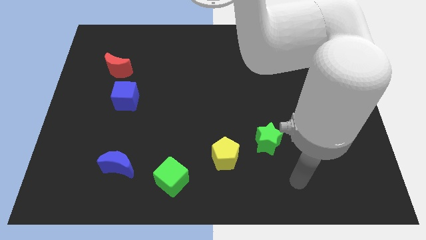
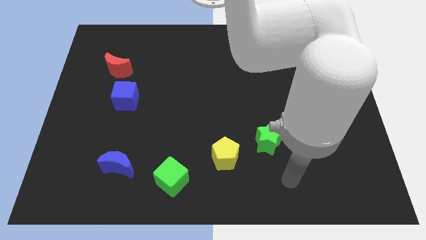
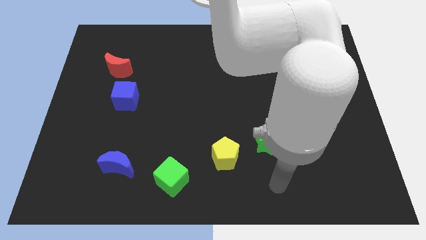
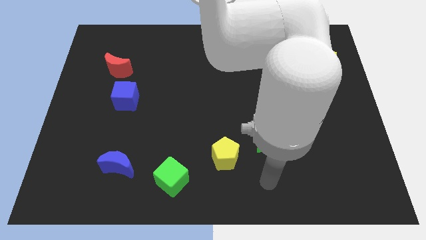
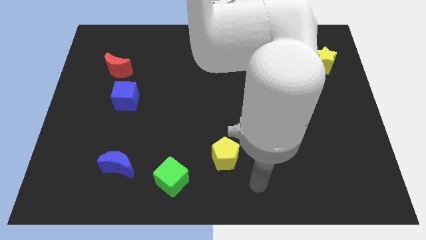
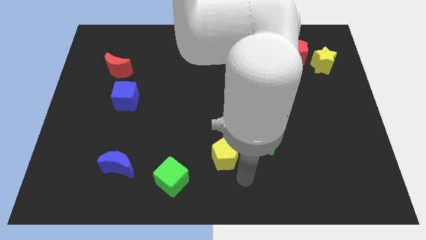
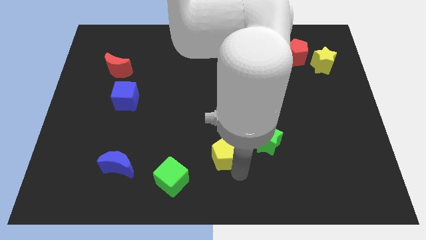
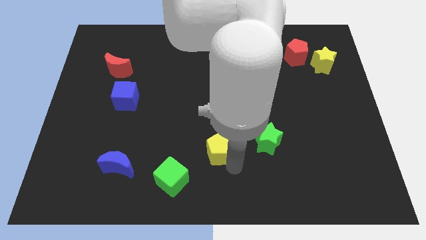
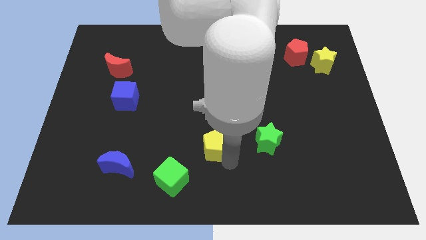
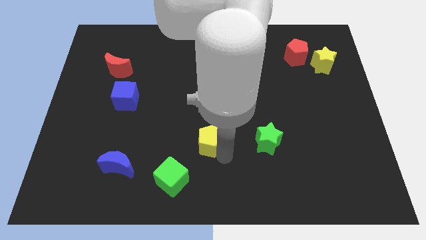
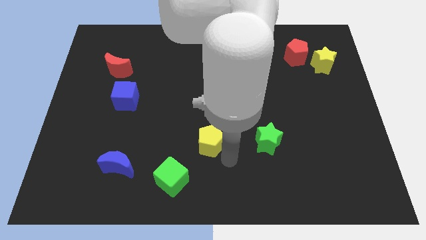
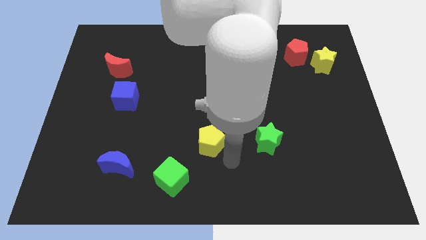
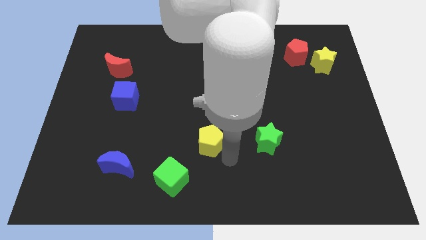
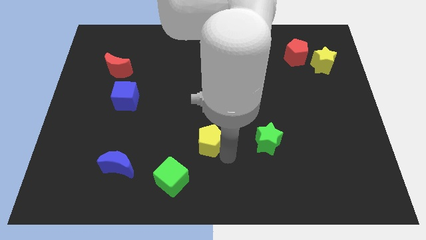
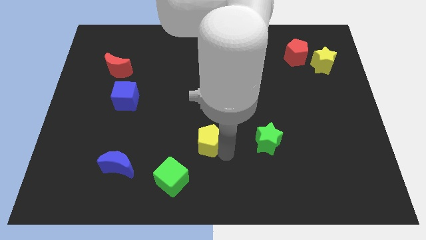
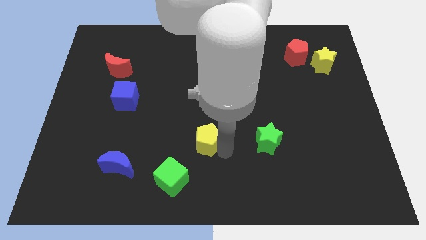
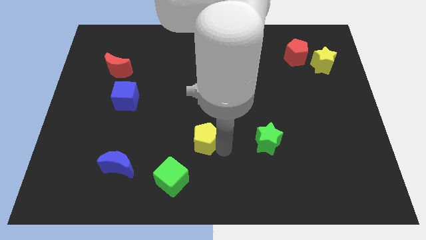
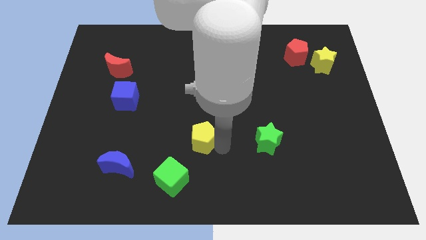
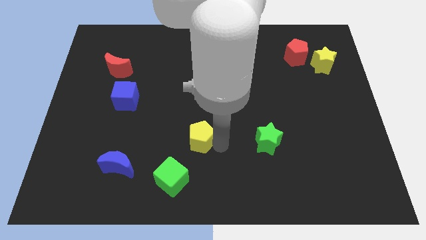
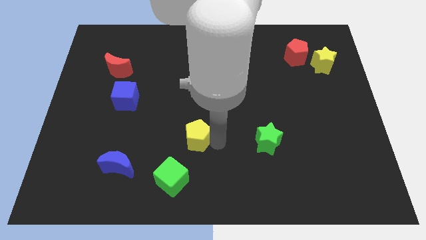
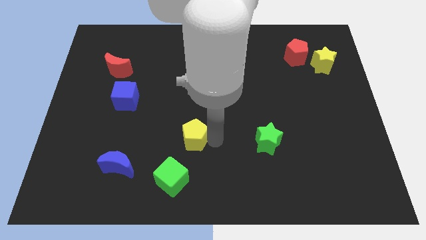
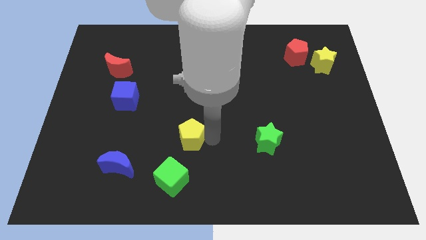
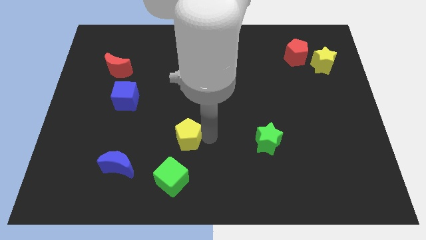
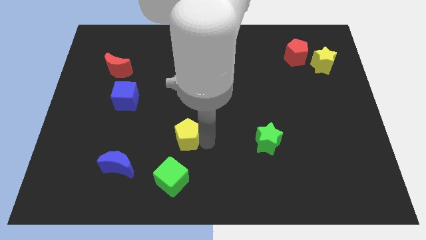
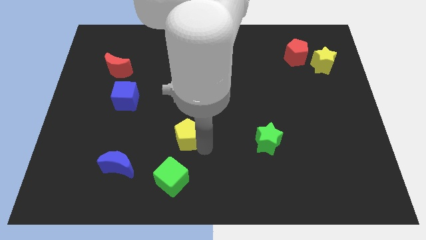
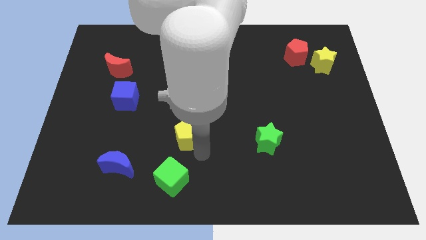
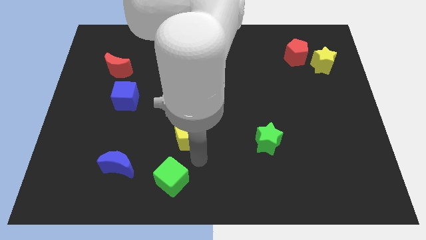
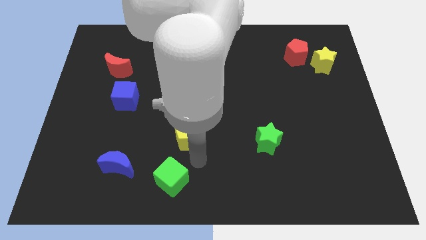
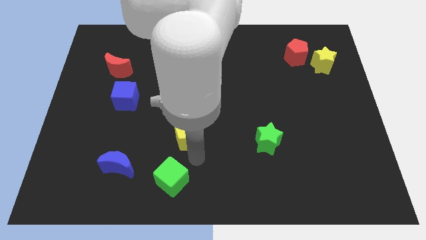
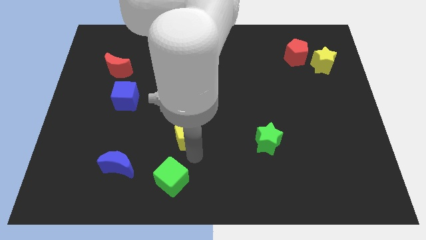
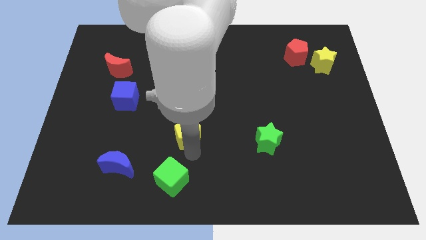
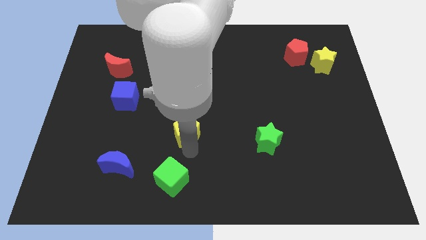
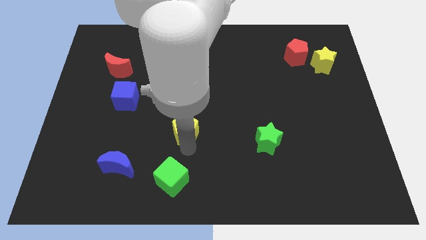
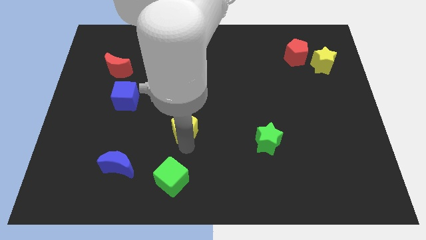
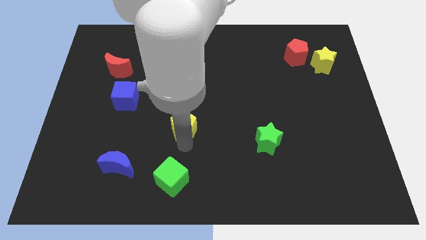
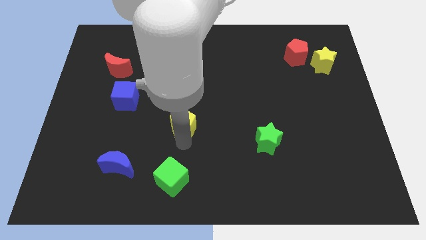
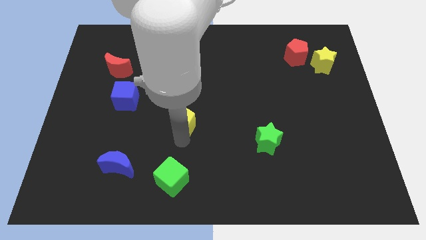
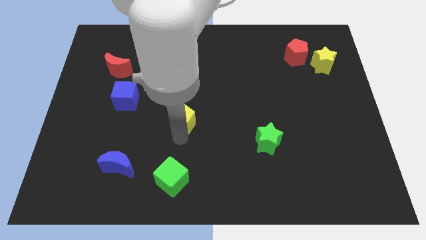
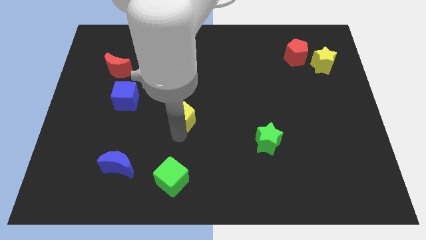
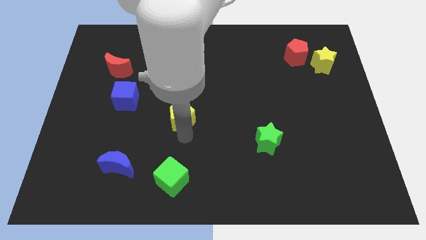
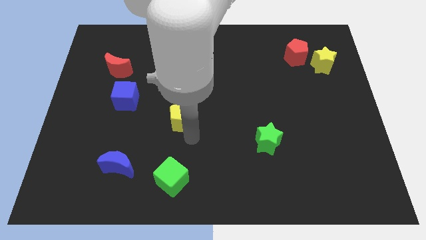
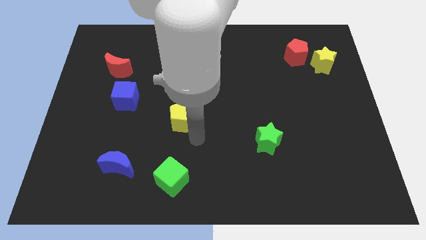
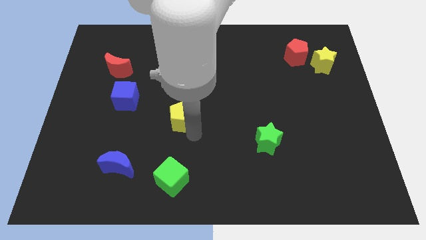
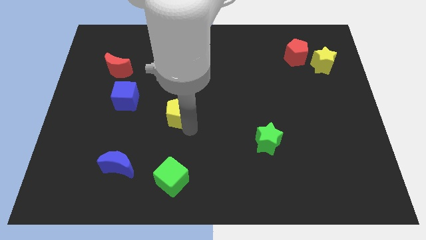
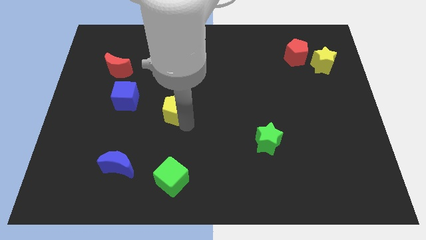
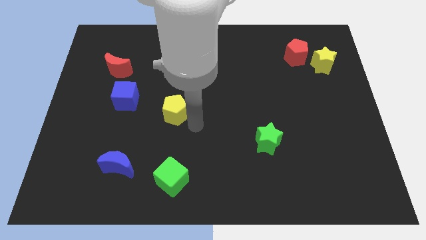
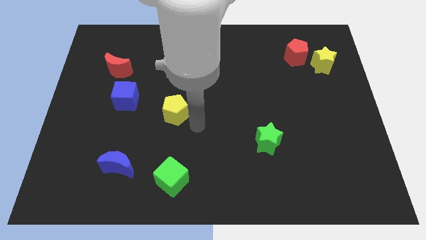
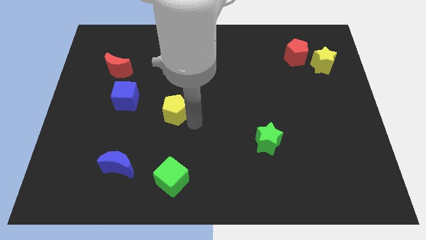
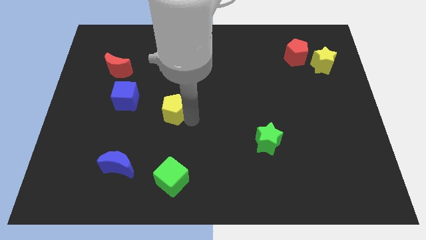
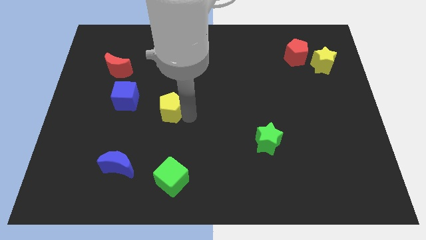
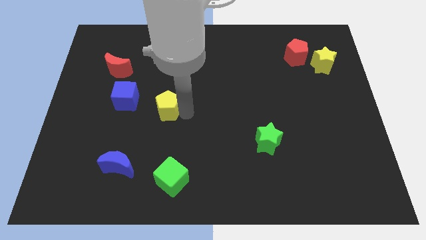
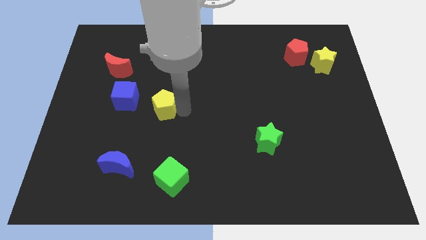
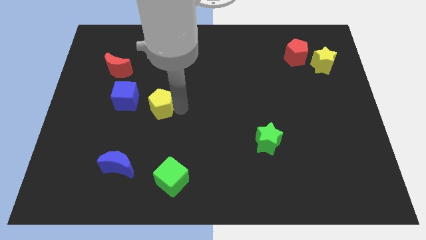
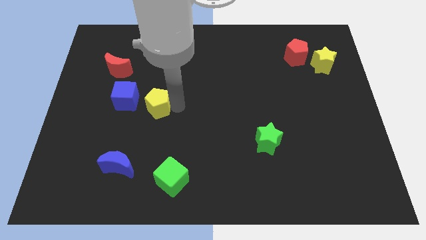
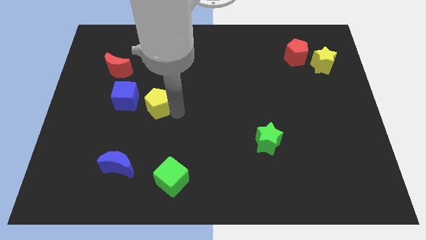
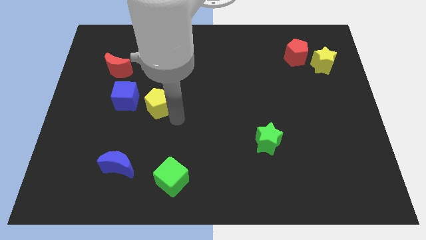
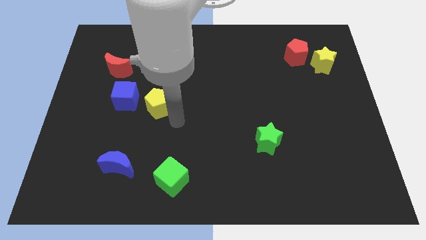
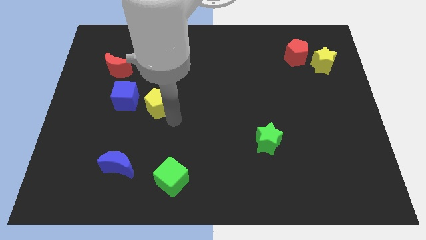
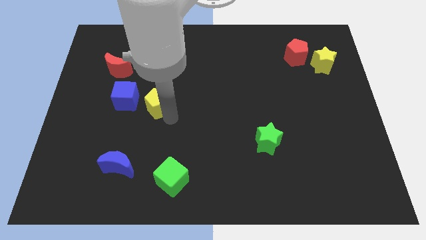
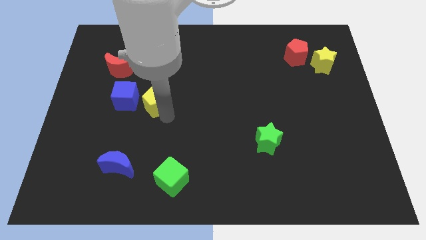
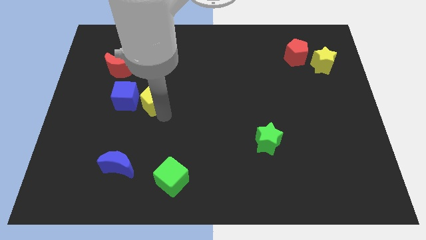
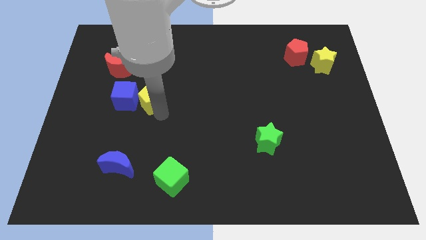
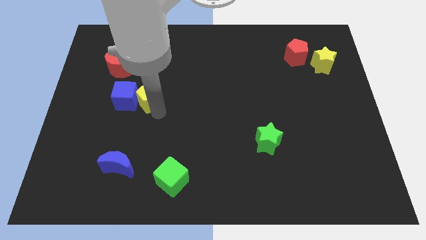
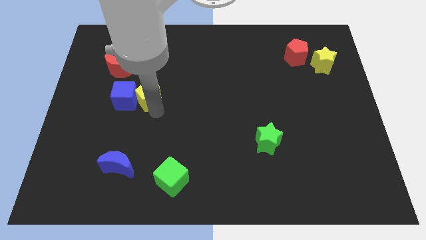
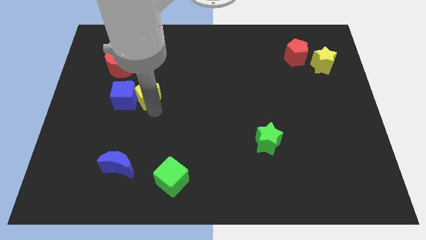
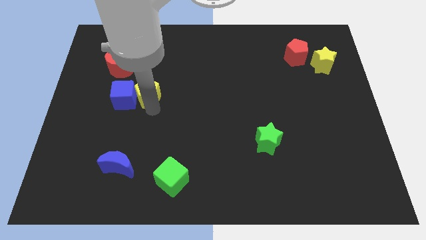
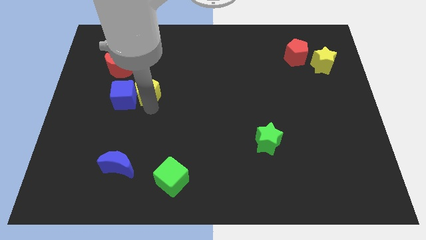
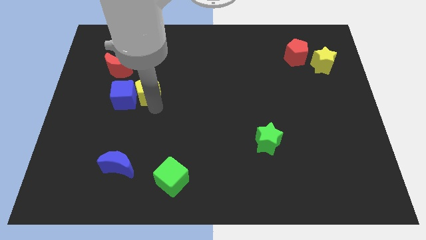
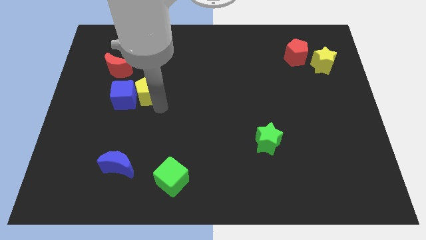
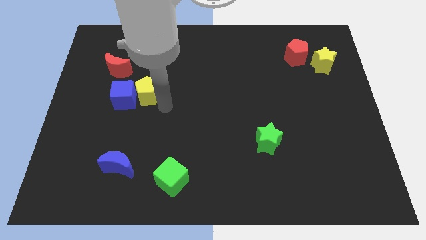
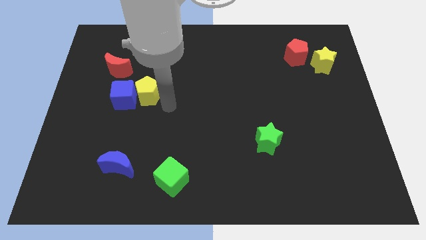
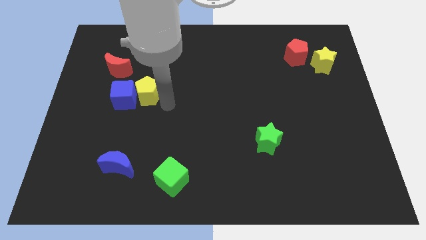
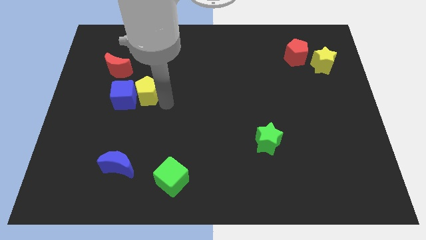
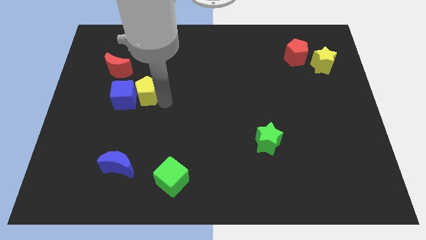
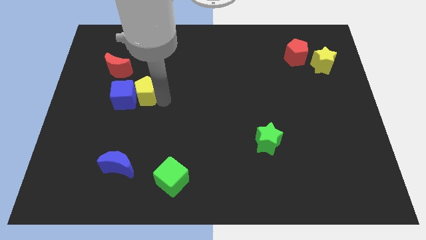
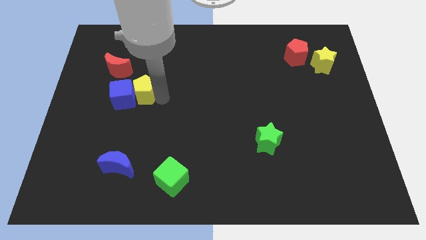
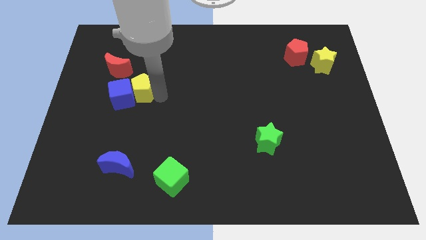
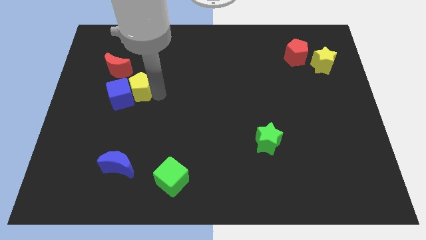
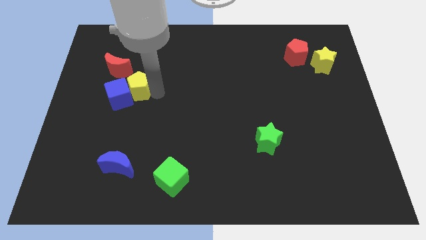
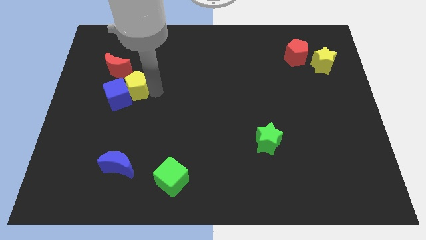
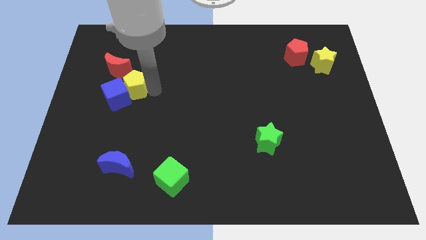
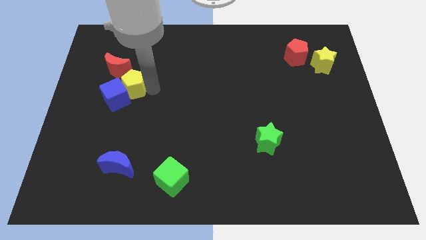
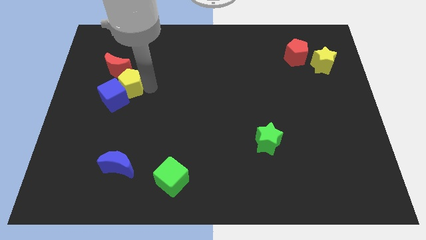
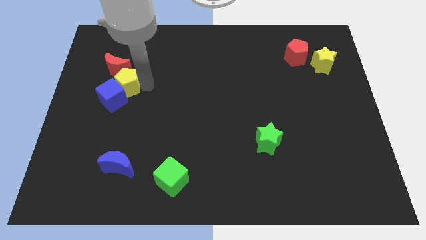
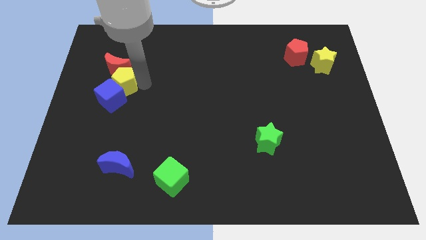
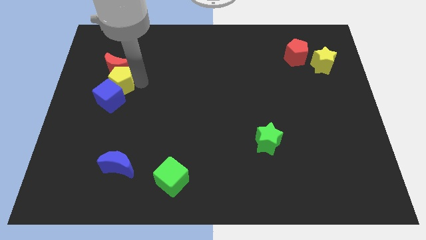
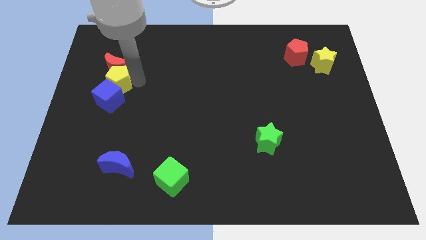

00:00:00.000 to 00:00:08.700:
put the yellow pentagon to the top left of the blue cube
